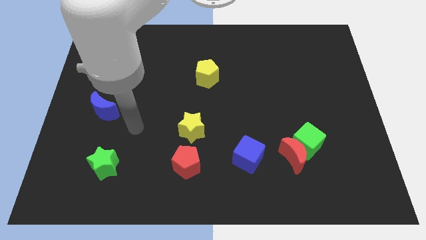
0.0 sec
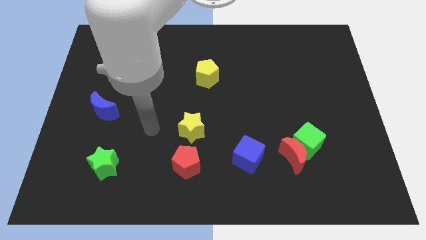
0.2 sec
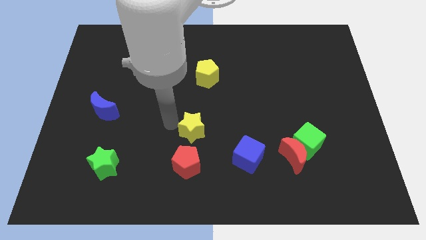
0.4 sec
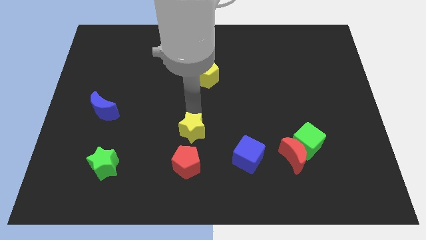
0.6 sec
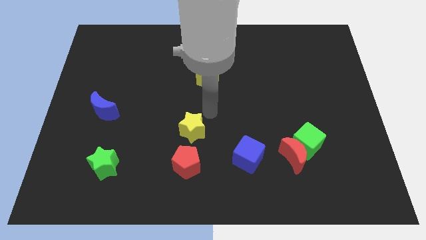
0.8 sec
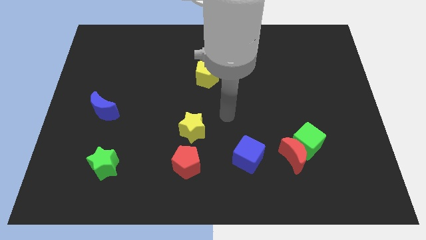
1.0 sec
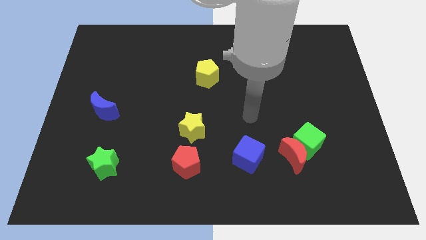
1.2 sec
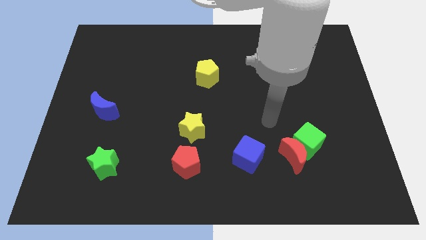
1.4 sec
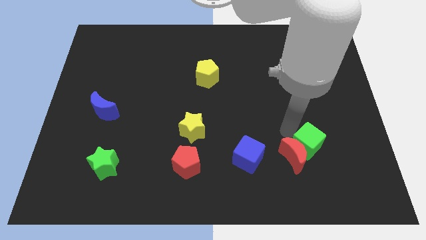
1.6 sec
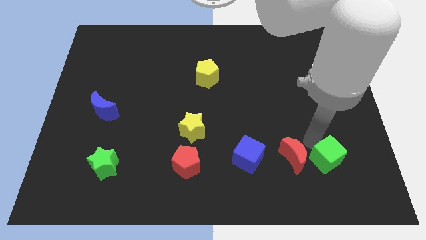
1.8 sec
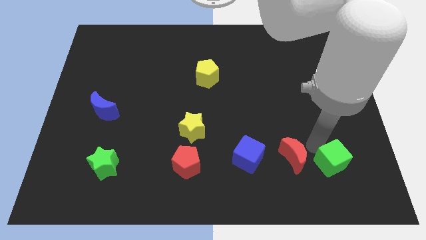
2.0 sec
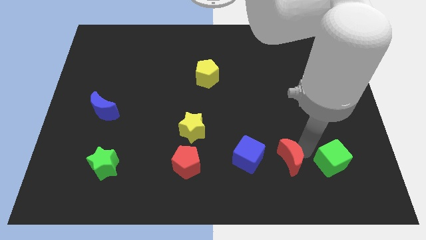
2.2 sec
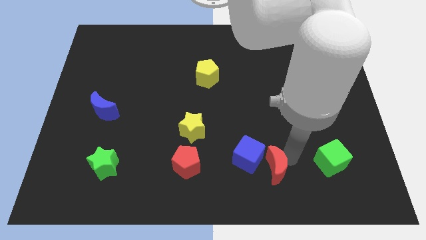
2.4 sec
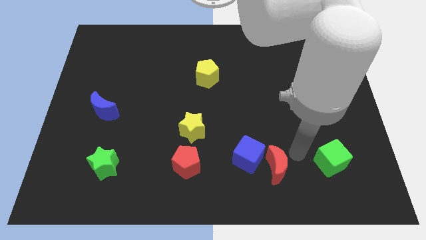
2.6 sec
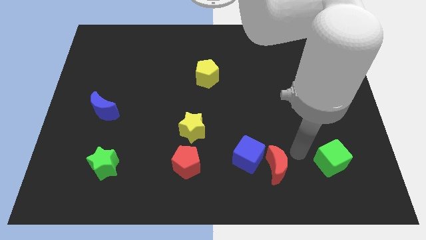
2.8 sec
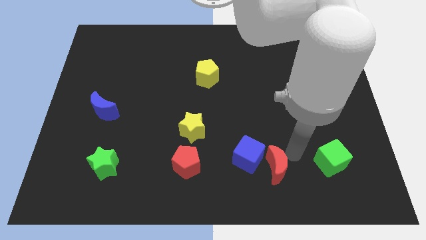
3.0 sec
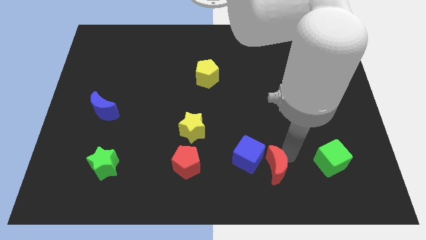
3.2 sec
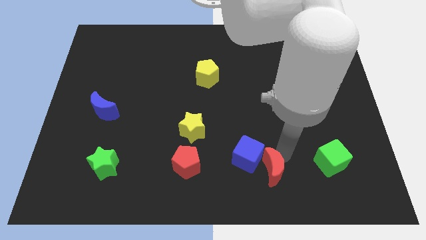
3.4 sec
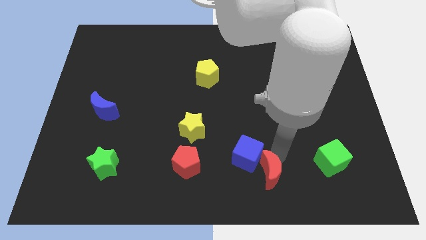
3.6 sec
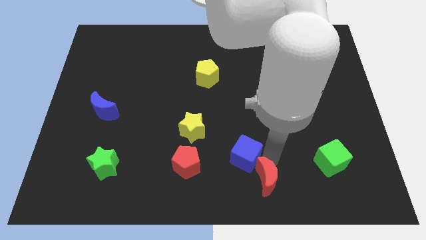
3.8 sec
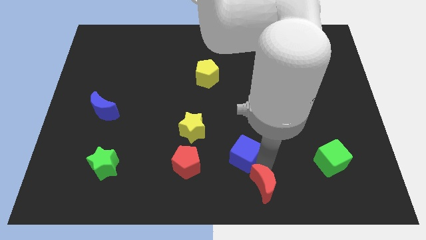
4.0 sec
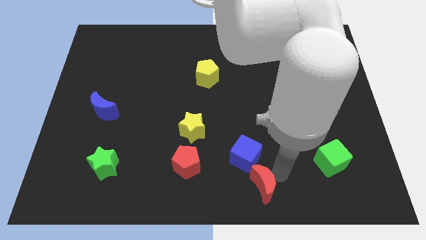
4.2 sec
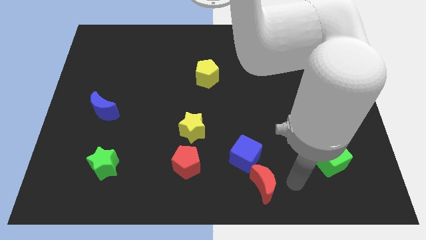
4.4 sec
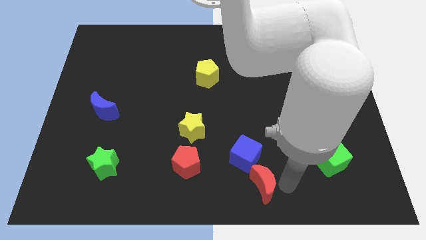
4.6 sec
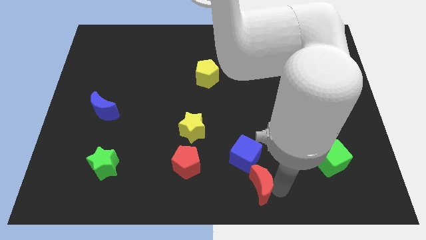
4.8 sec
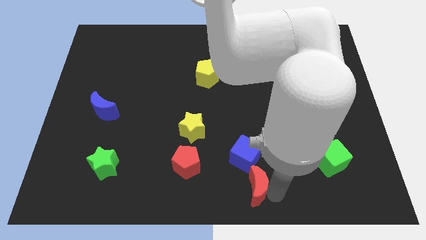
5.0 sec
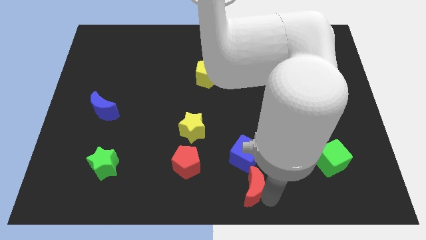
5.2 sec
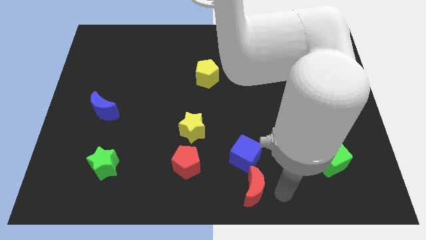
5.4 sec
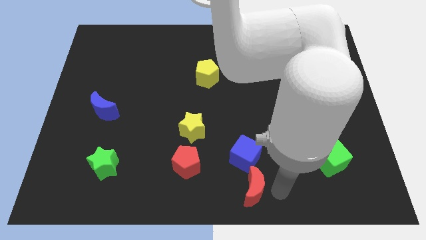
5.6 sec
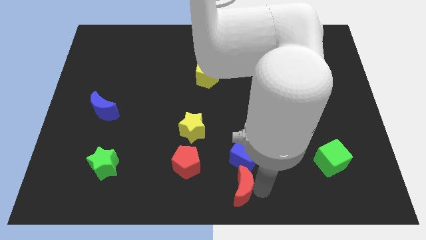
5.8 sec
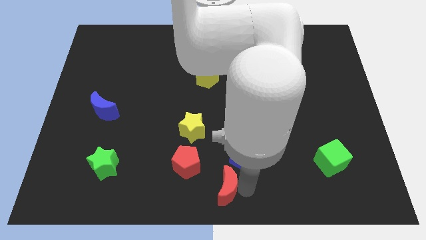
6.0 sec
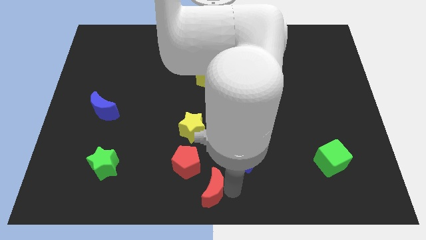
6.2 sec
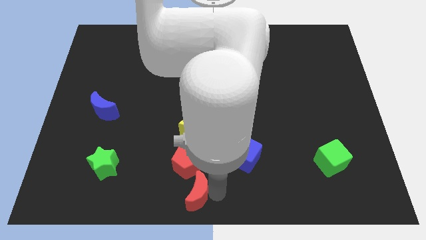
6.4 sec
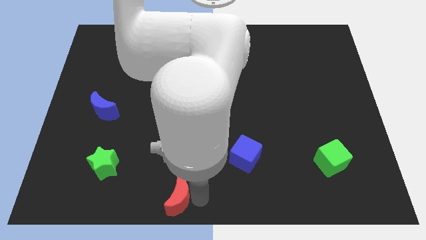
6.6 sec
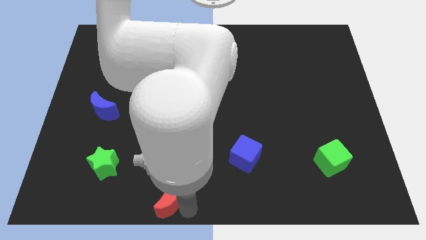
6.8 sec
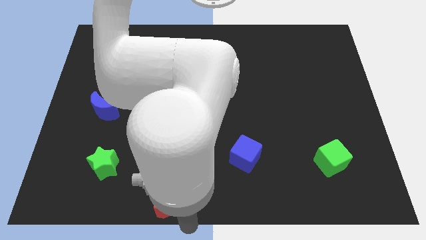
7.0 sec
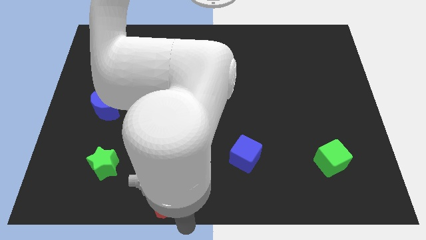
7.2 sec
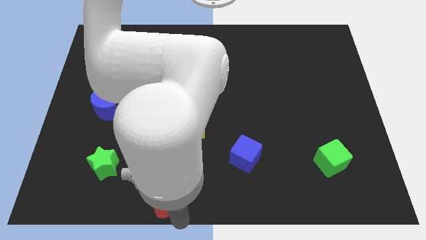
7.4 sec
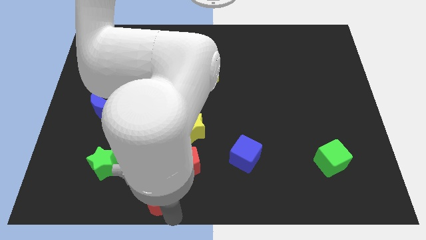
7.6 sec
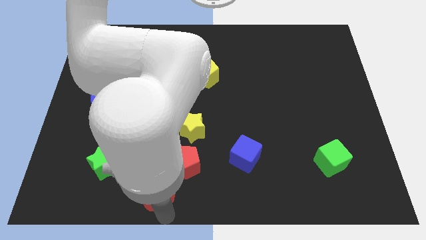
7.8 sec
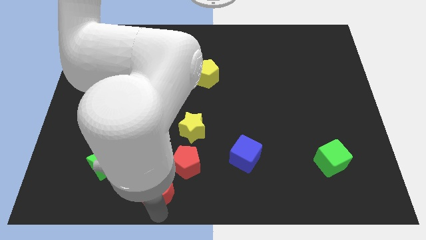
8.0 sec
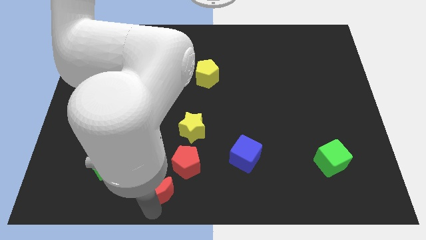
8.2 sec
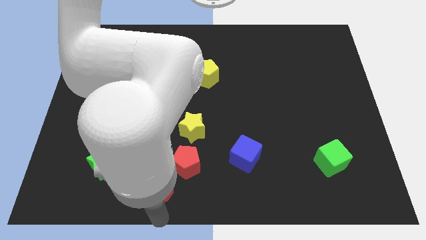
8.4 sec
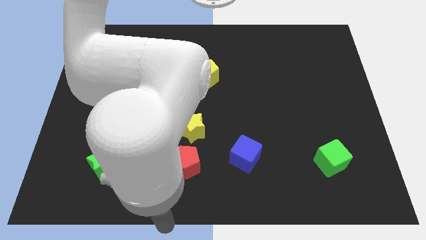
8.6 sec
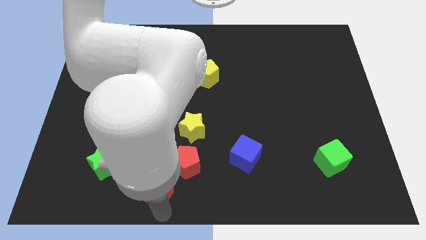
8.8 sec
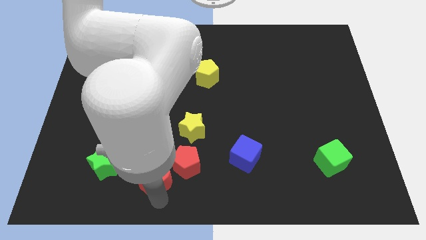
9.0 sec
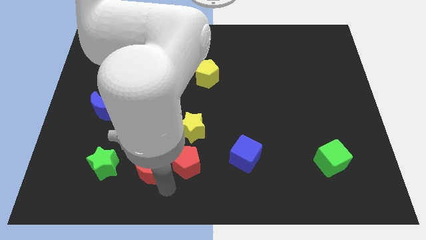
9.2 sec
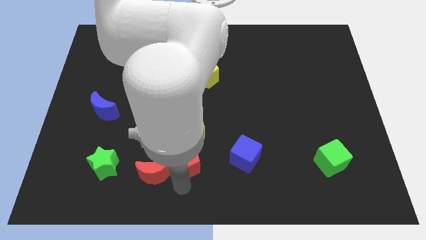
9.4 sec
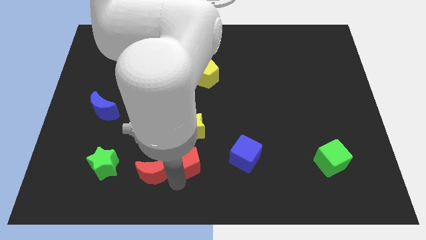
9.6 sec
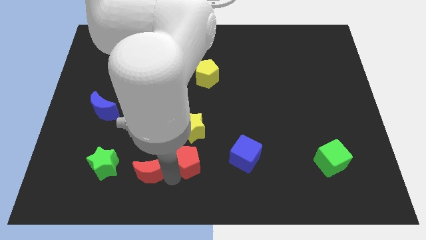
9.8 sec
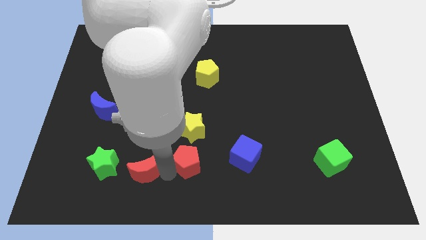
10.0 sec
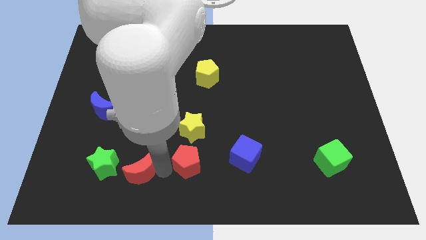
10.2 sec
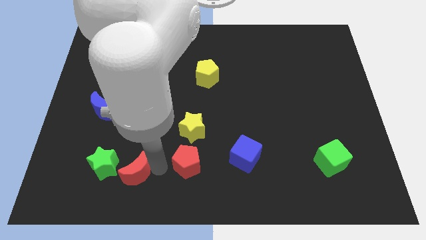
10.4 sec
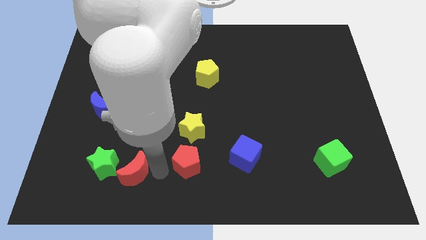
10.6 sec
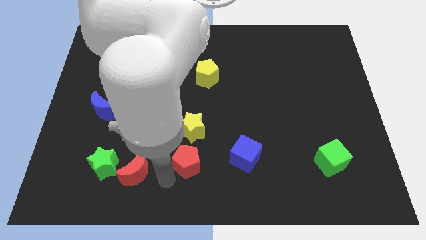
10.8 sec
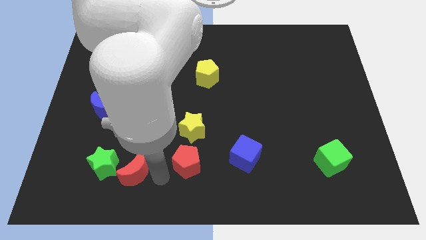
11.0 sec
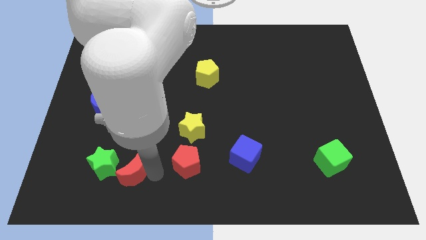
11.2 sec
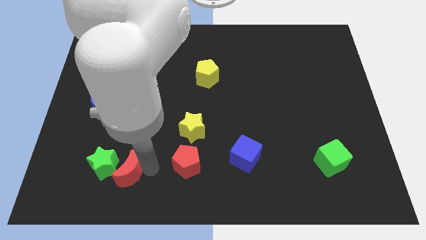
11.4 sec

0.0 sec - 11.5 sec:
put the red moon to the green star

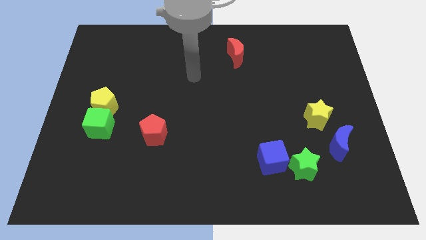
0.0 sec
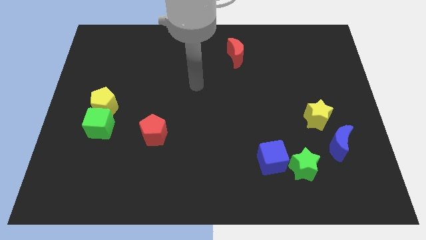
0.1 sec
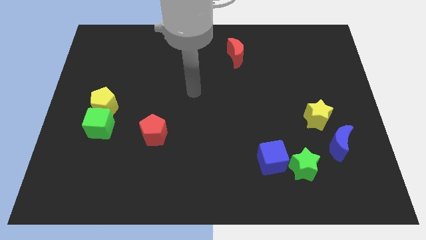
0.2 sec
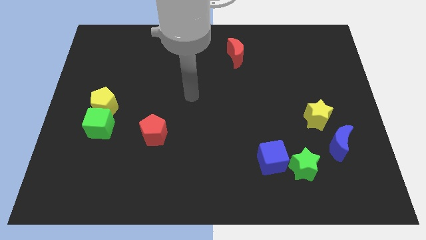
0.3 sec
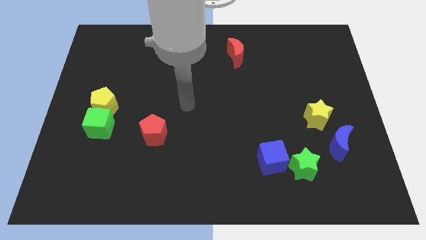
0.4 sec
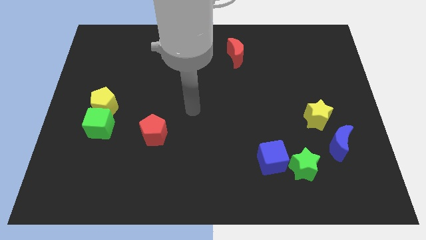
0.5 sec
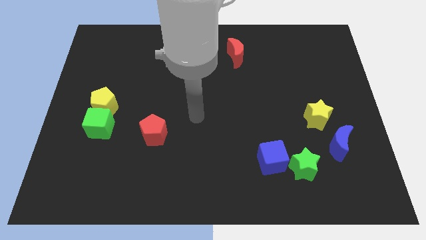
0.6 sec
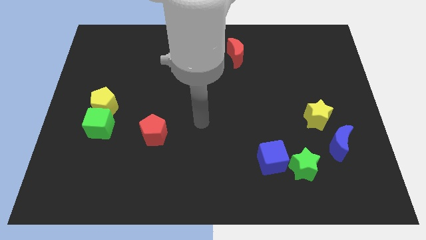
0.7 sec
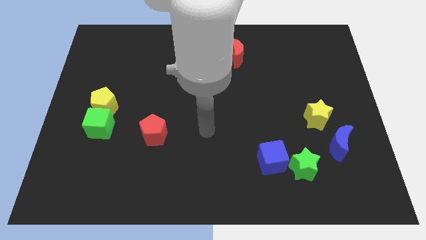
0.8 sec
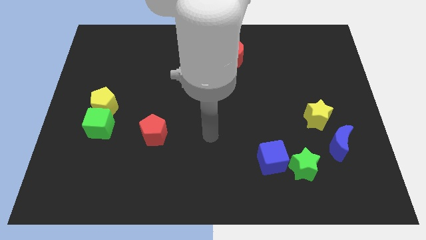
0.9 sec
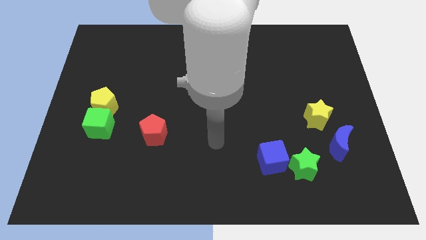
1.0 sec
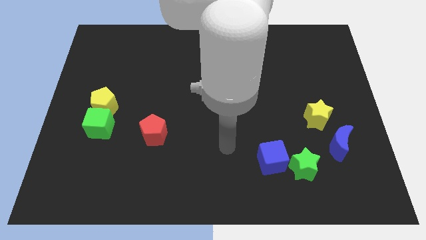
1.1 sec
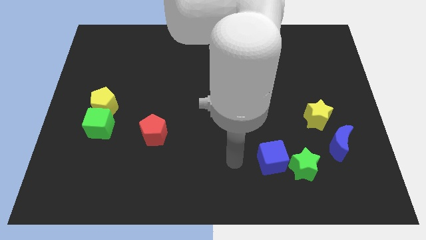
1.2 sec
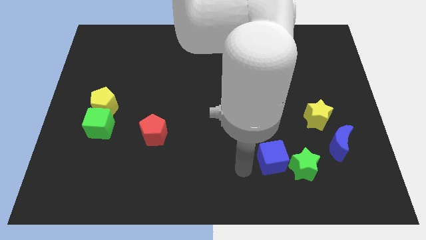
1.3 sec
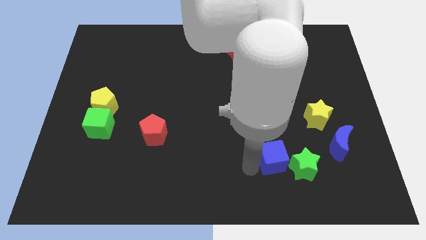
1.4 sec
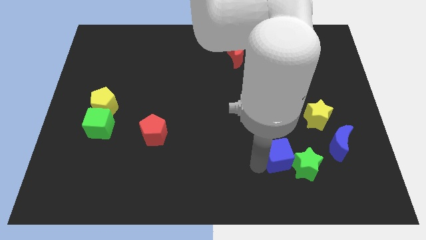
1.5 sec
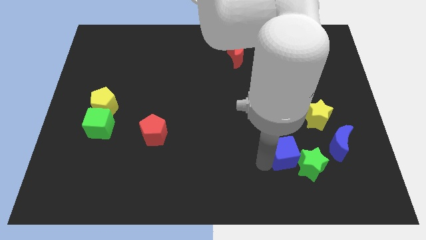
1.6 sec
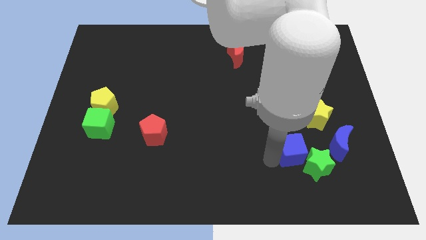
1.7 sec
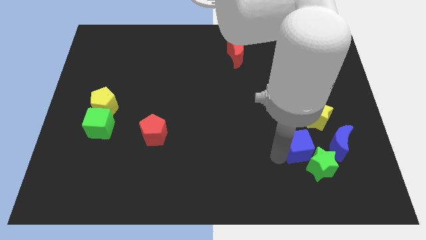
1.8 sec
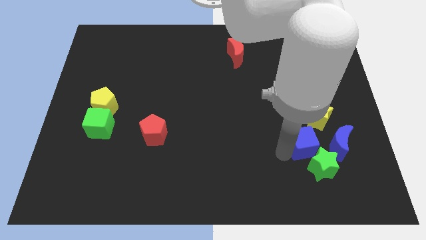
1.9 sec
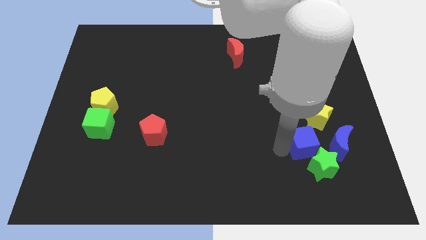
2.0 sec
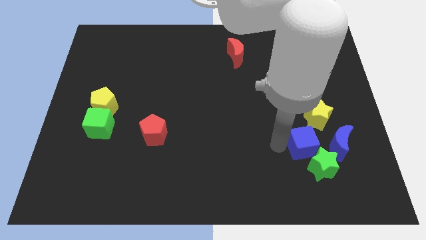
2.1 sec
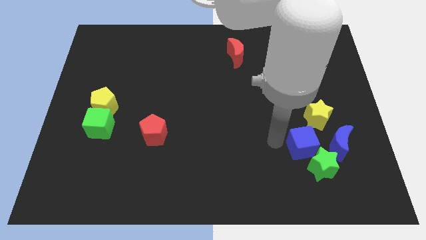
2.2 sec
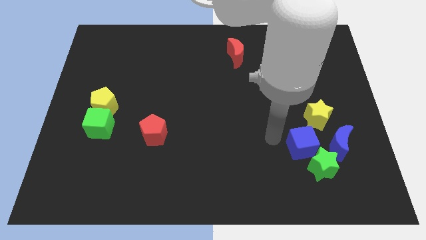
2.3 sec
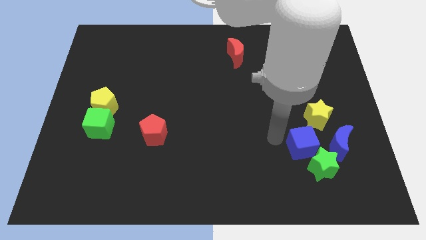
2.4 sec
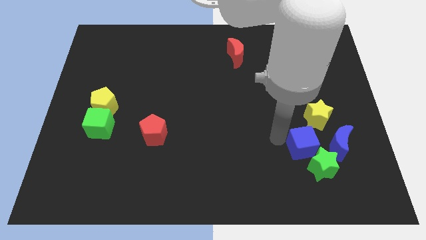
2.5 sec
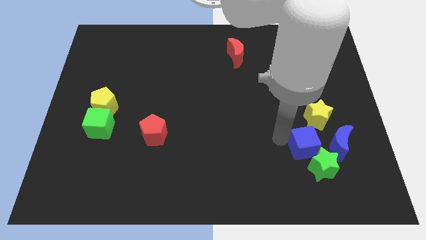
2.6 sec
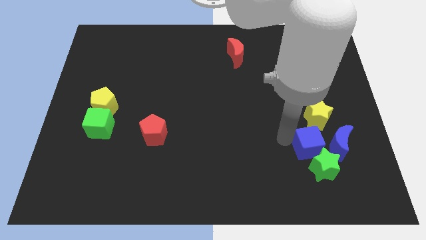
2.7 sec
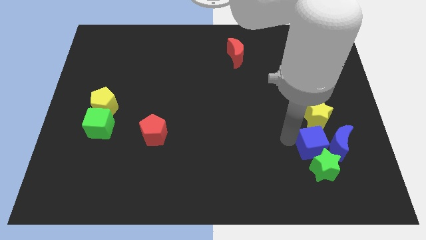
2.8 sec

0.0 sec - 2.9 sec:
push the blue cube to the blue moon
